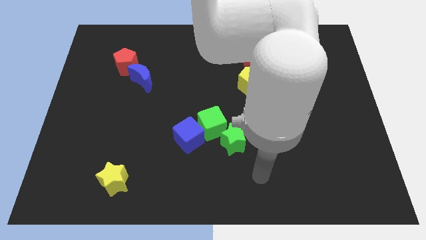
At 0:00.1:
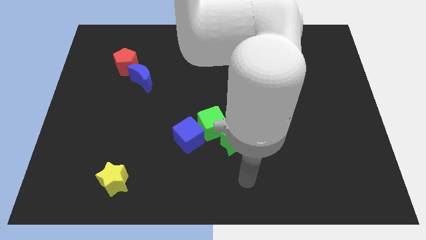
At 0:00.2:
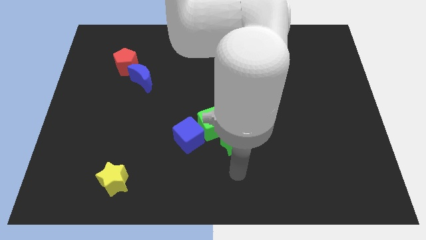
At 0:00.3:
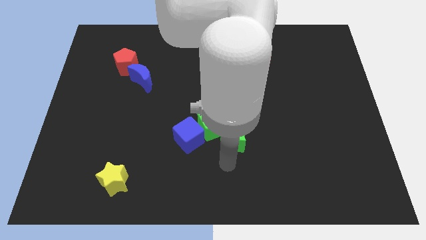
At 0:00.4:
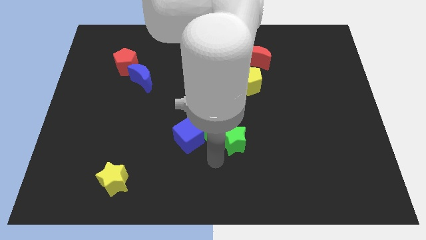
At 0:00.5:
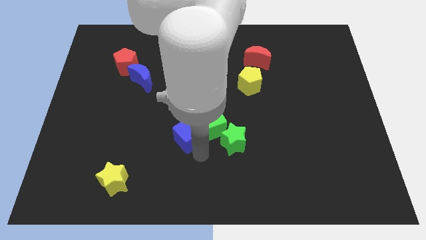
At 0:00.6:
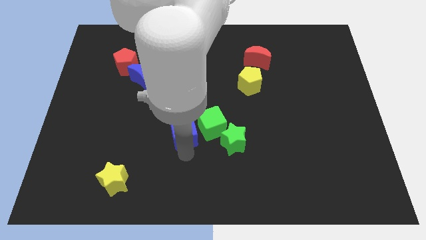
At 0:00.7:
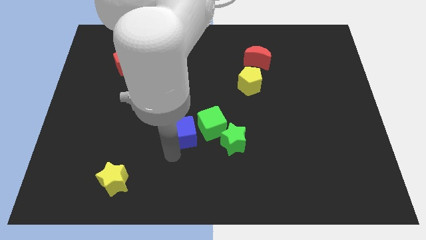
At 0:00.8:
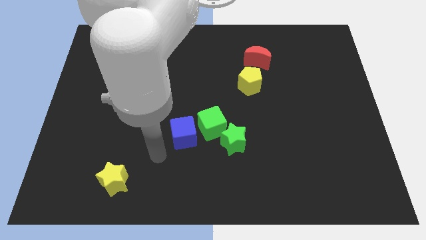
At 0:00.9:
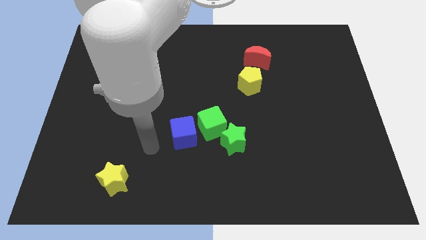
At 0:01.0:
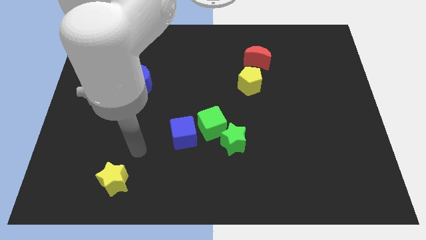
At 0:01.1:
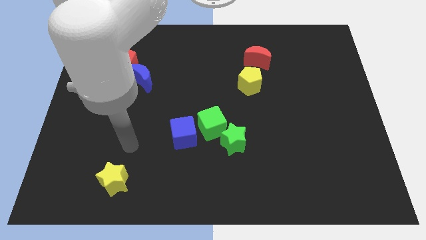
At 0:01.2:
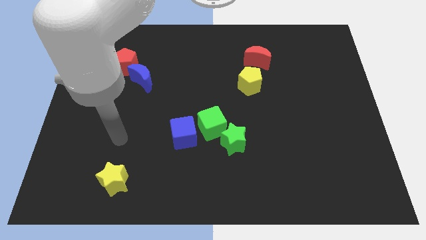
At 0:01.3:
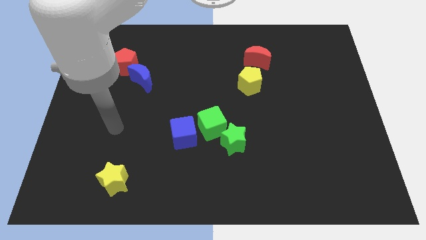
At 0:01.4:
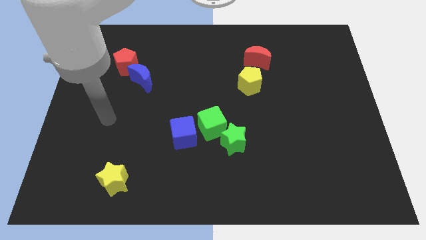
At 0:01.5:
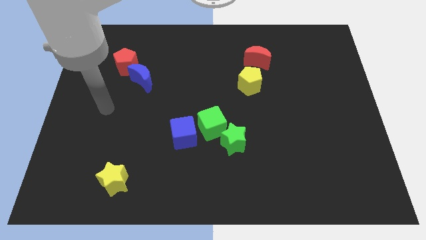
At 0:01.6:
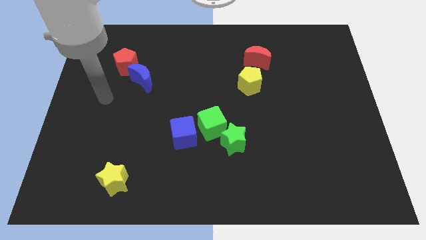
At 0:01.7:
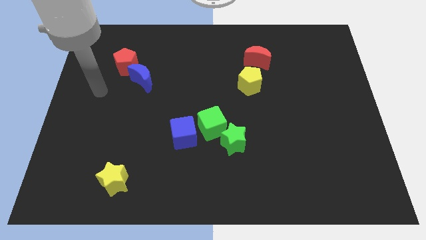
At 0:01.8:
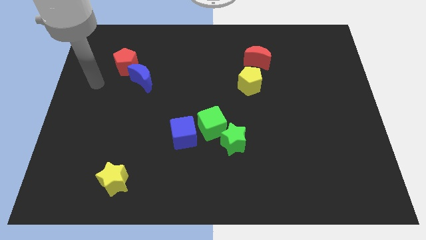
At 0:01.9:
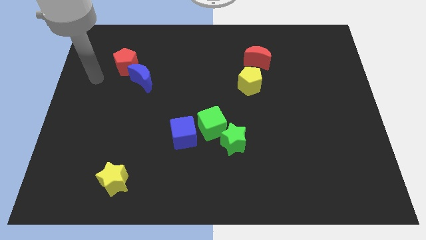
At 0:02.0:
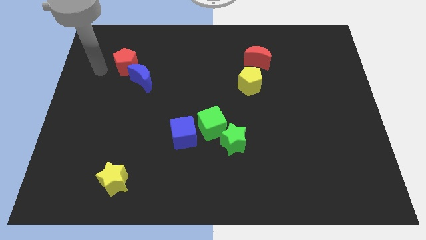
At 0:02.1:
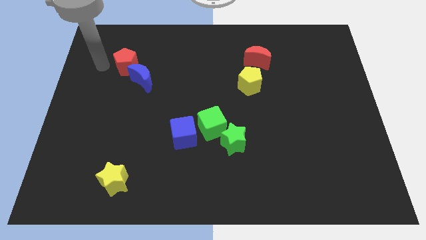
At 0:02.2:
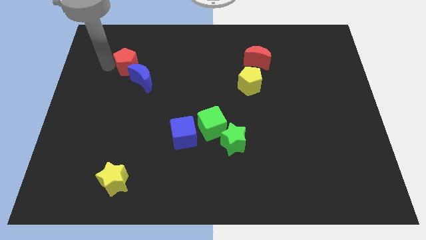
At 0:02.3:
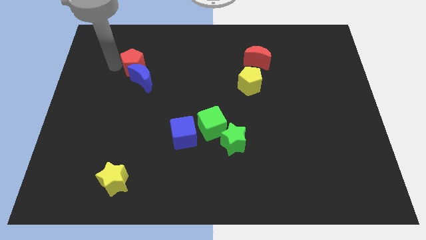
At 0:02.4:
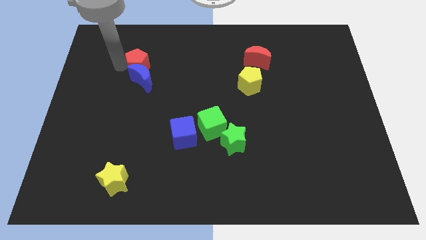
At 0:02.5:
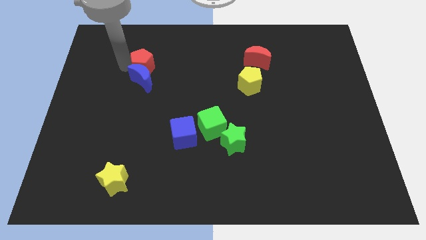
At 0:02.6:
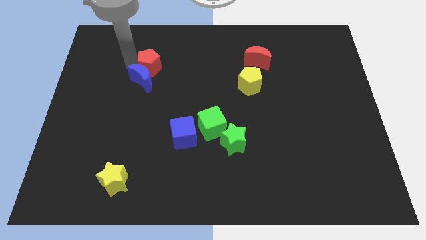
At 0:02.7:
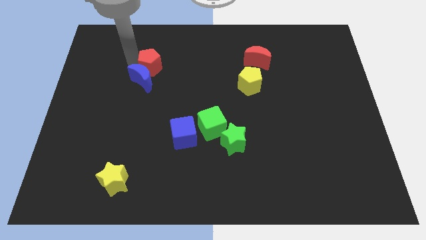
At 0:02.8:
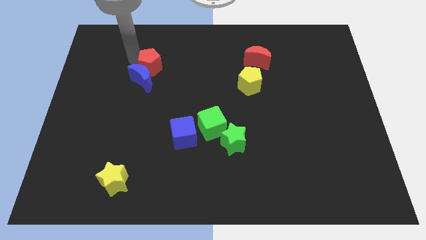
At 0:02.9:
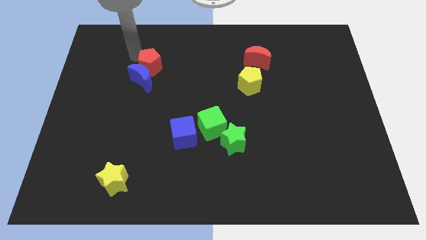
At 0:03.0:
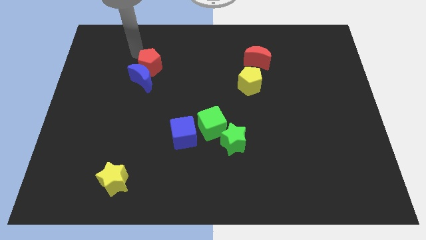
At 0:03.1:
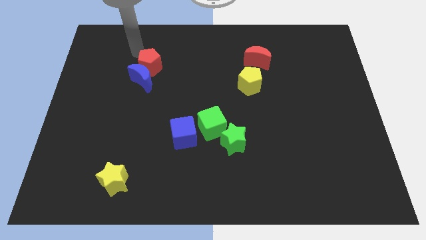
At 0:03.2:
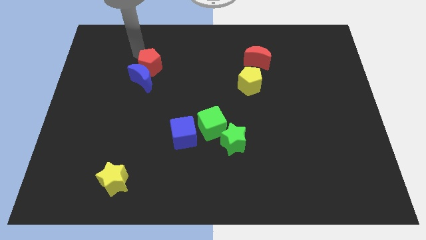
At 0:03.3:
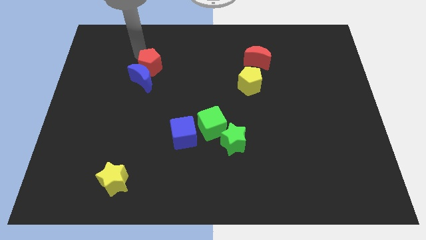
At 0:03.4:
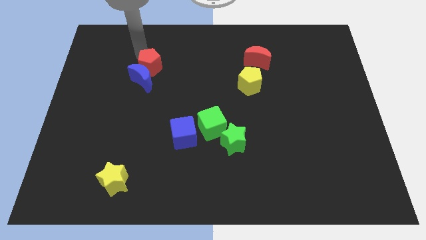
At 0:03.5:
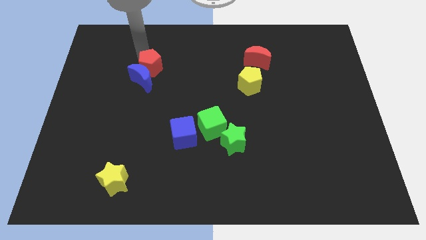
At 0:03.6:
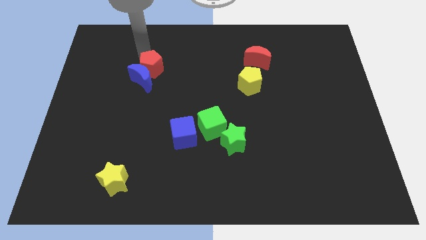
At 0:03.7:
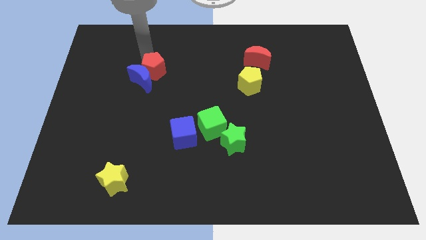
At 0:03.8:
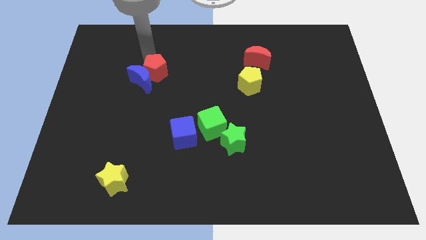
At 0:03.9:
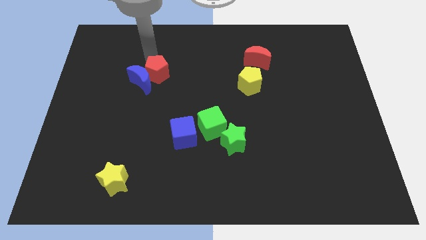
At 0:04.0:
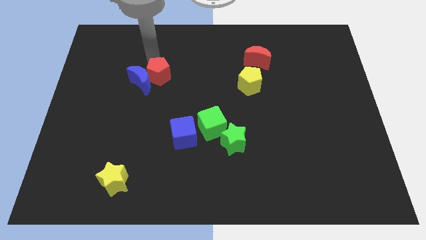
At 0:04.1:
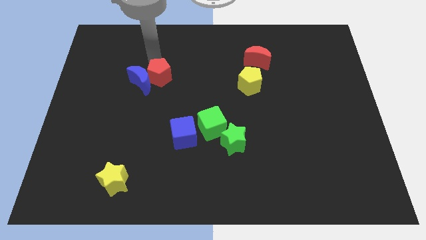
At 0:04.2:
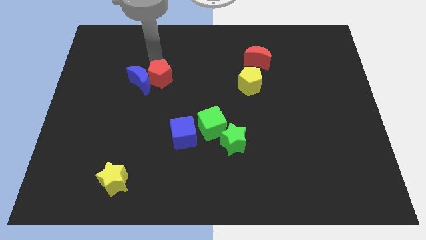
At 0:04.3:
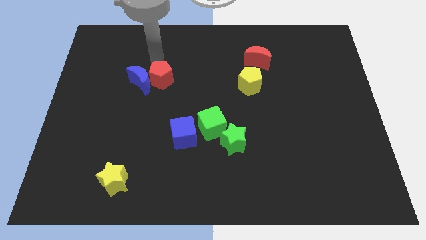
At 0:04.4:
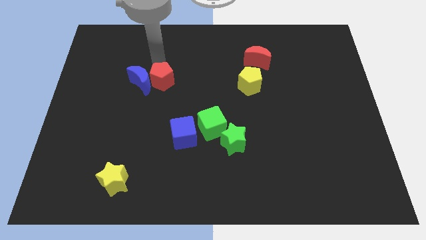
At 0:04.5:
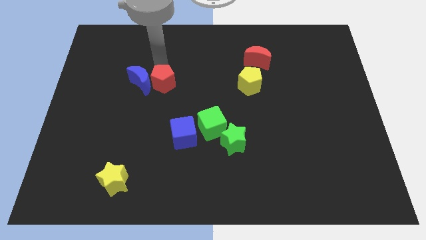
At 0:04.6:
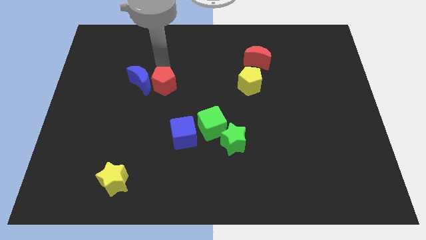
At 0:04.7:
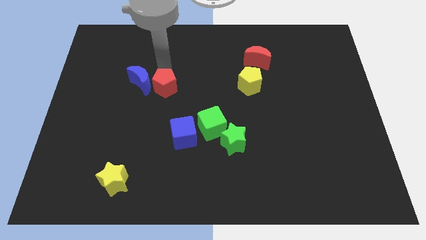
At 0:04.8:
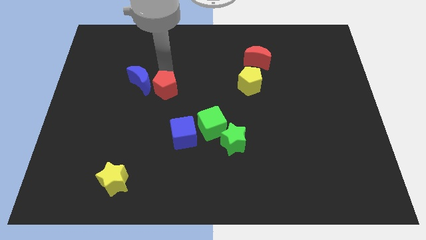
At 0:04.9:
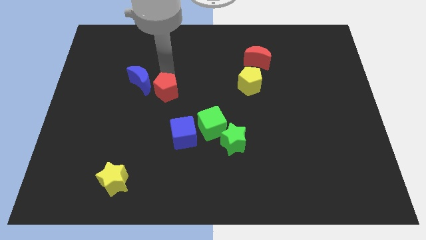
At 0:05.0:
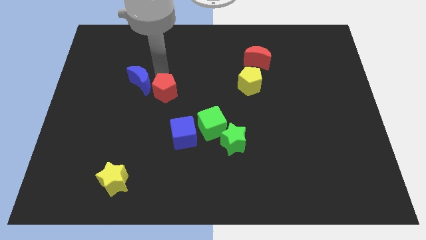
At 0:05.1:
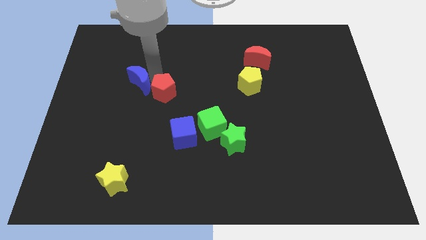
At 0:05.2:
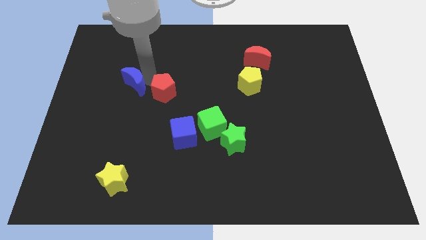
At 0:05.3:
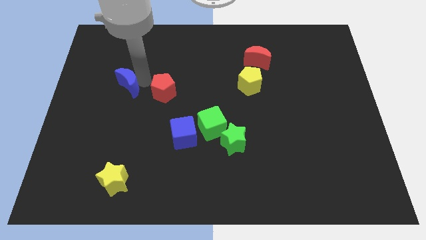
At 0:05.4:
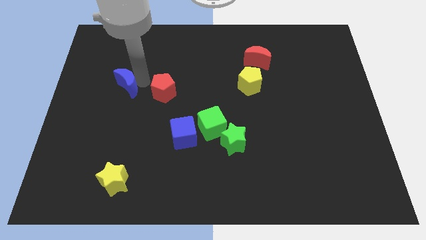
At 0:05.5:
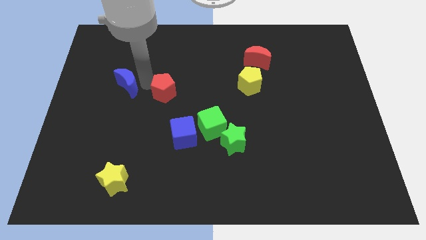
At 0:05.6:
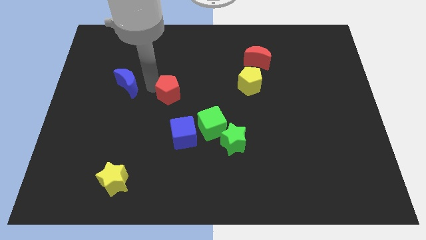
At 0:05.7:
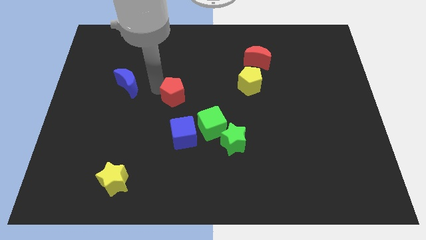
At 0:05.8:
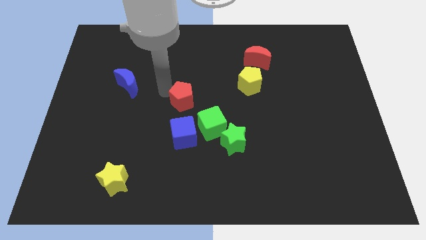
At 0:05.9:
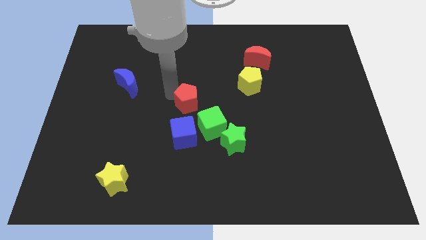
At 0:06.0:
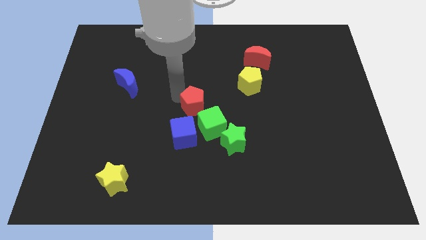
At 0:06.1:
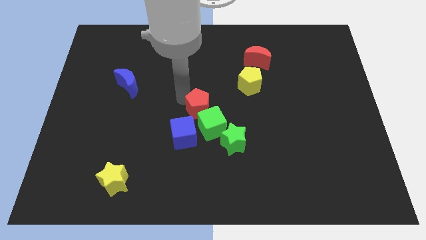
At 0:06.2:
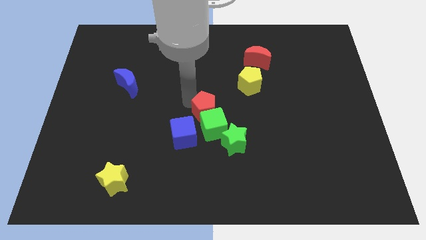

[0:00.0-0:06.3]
push the red pentagon close to the green cube

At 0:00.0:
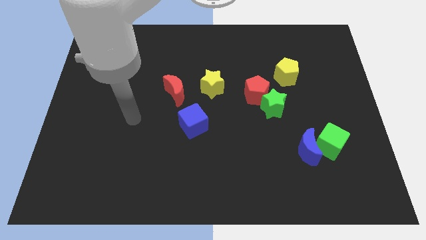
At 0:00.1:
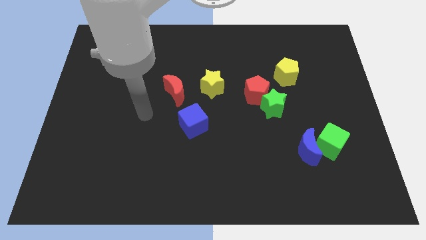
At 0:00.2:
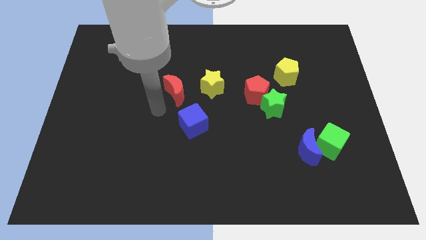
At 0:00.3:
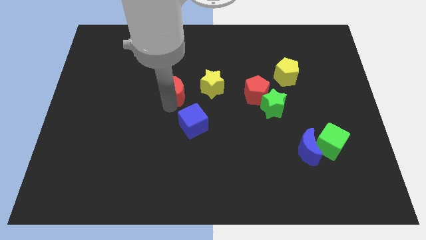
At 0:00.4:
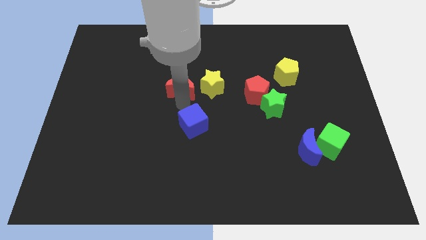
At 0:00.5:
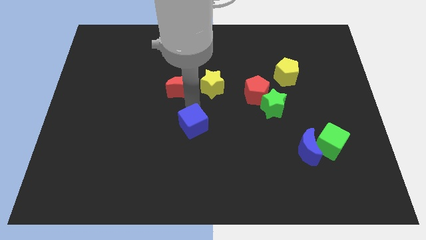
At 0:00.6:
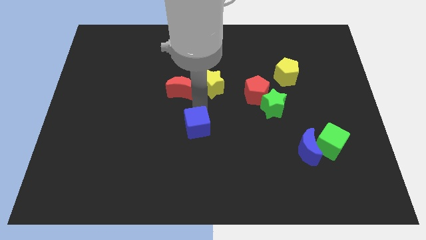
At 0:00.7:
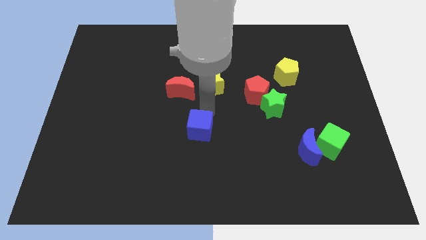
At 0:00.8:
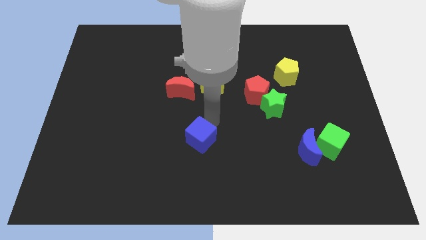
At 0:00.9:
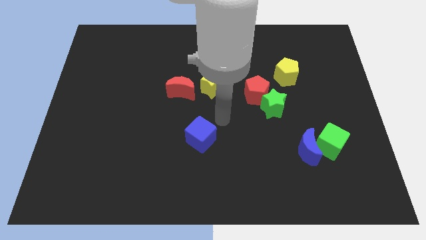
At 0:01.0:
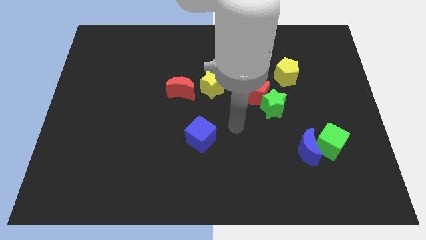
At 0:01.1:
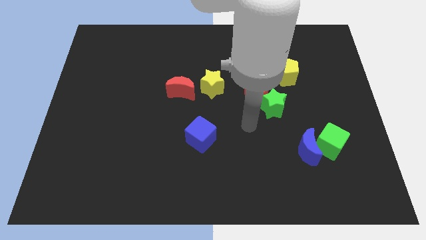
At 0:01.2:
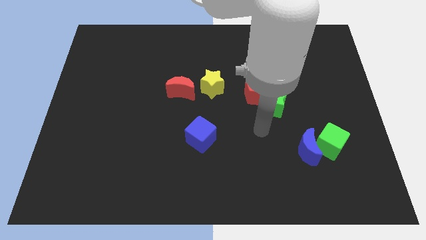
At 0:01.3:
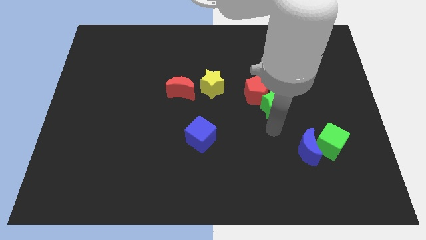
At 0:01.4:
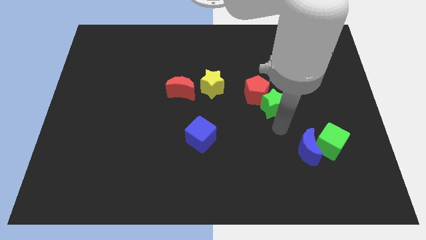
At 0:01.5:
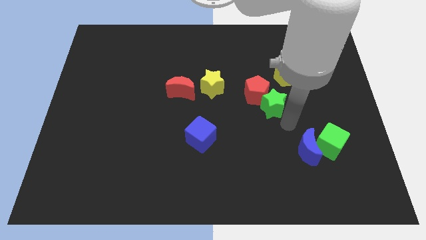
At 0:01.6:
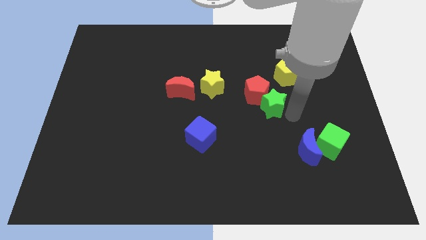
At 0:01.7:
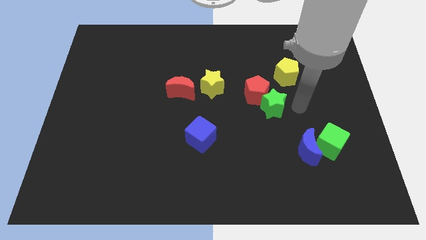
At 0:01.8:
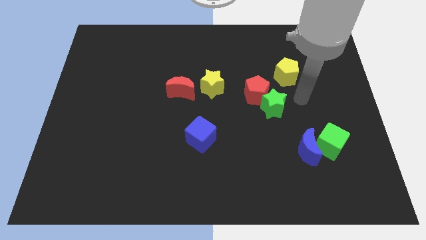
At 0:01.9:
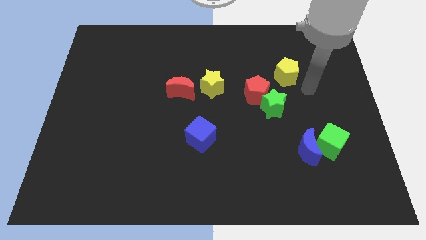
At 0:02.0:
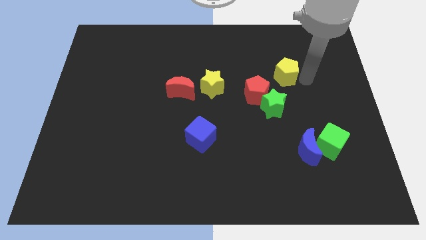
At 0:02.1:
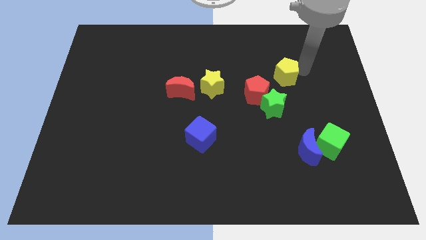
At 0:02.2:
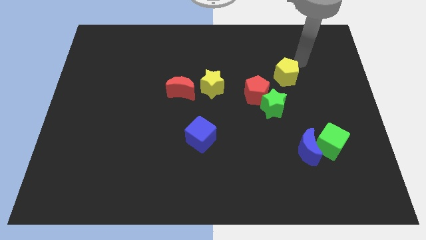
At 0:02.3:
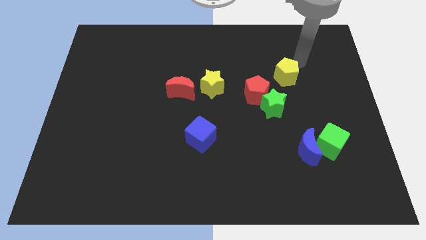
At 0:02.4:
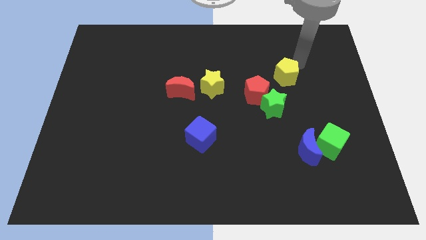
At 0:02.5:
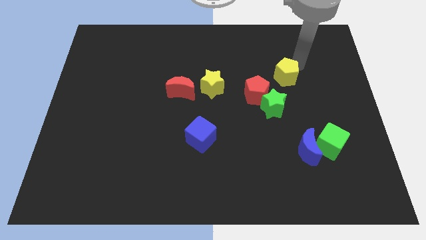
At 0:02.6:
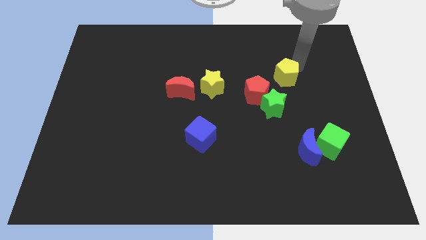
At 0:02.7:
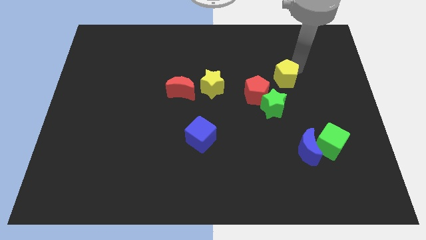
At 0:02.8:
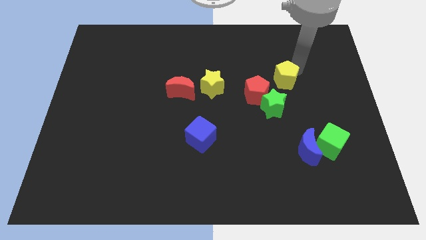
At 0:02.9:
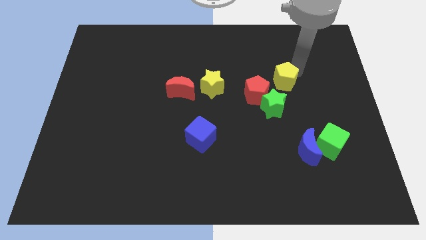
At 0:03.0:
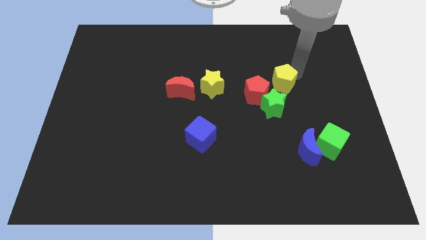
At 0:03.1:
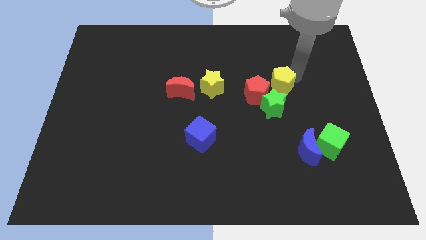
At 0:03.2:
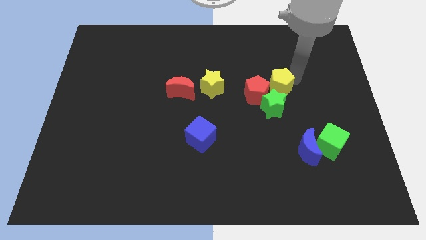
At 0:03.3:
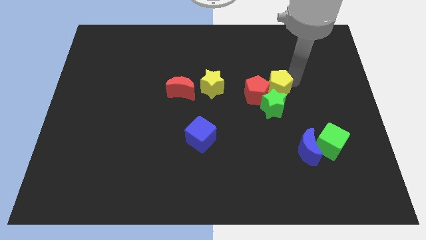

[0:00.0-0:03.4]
push the yellow pentagon towards the red pentagon
